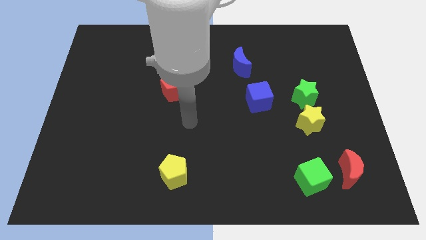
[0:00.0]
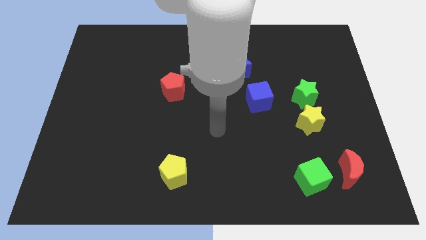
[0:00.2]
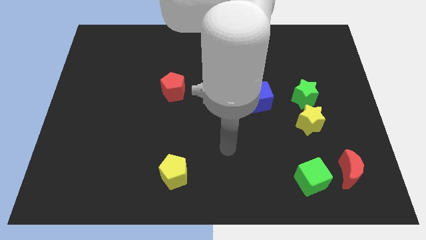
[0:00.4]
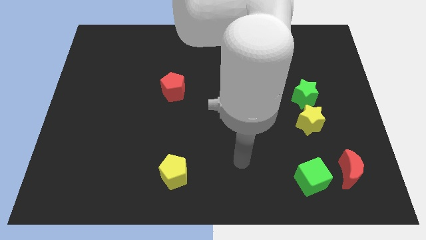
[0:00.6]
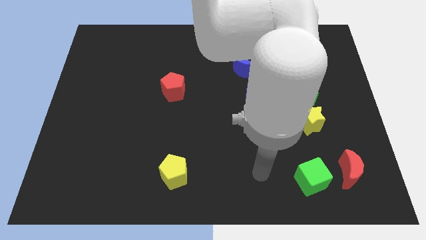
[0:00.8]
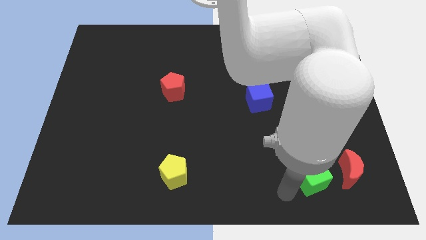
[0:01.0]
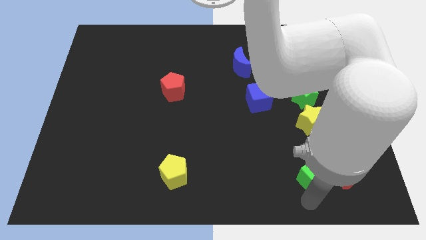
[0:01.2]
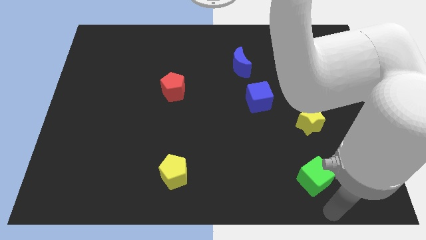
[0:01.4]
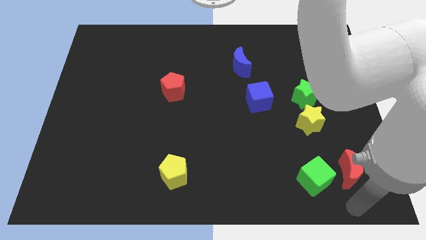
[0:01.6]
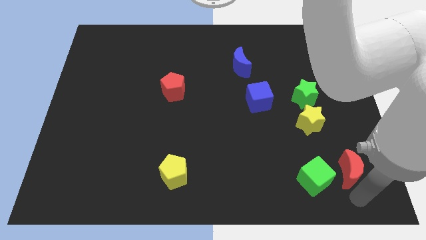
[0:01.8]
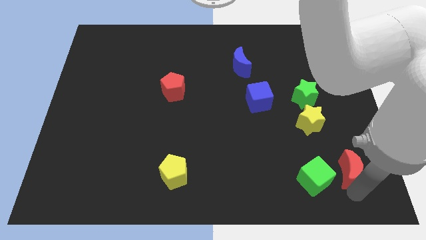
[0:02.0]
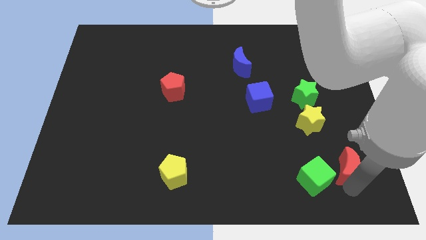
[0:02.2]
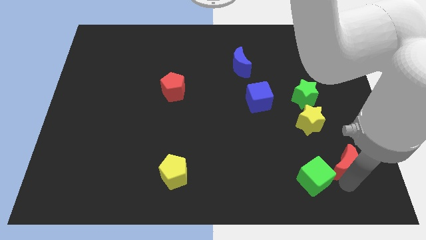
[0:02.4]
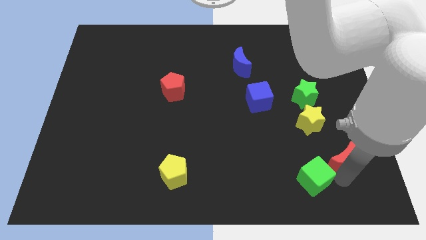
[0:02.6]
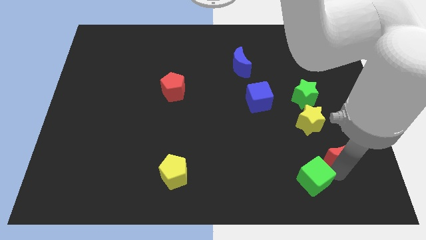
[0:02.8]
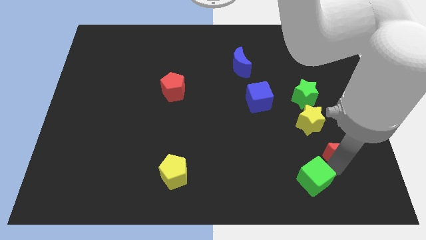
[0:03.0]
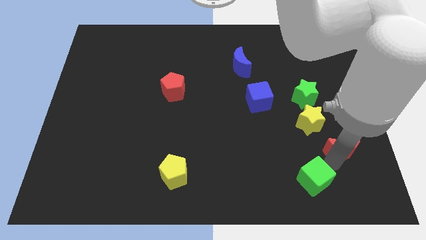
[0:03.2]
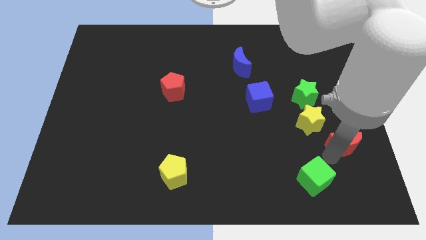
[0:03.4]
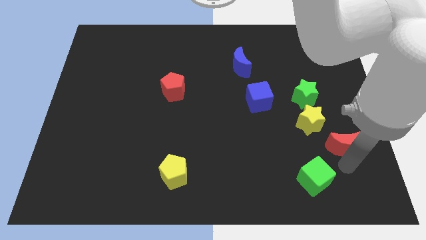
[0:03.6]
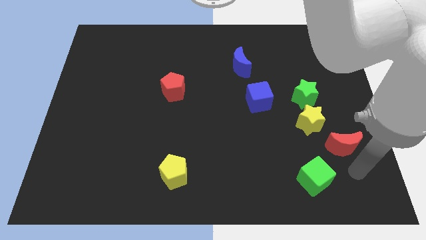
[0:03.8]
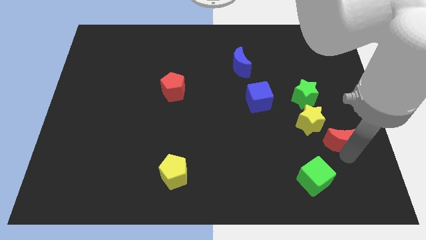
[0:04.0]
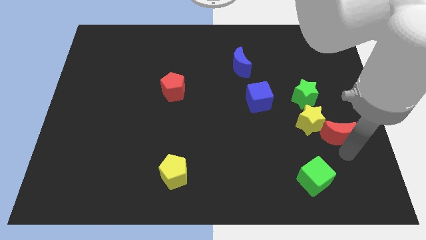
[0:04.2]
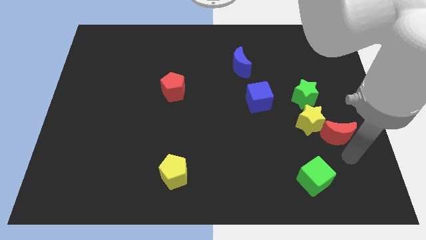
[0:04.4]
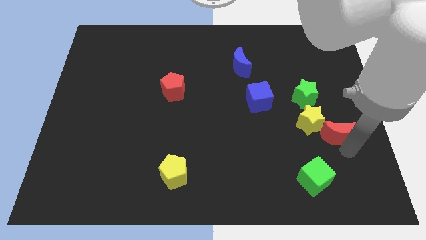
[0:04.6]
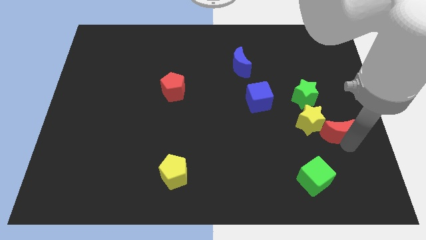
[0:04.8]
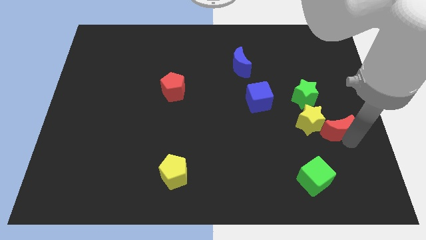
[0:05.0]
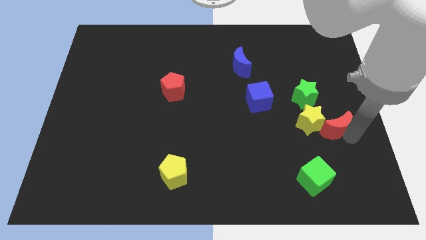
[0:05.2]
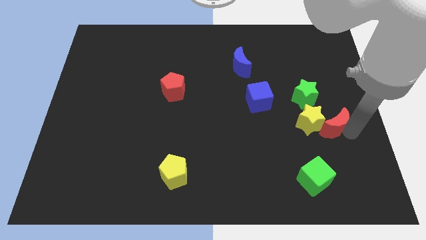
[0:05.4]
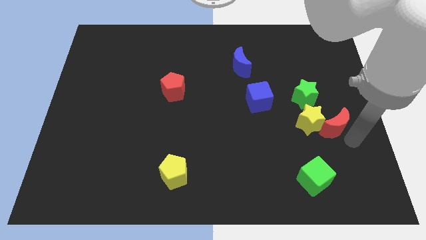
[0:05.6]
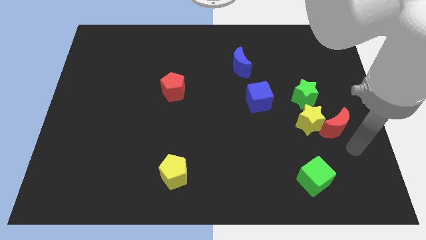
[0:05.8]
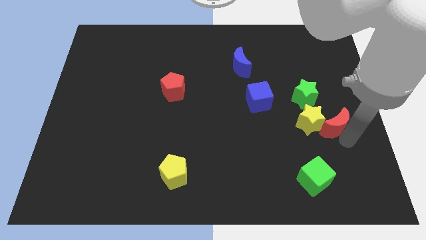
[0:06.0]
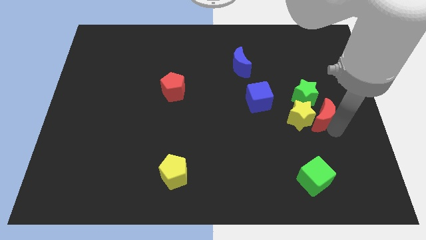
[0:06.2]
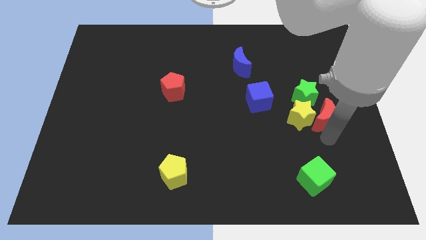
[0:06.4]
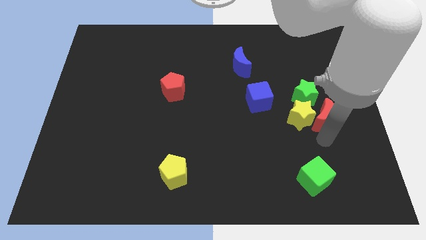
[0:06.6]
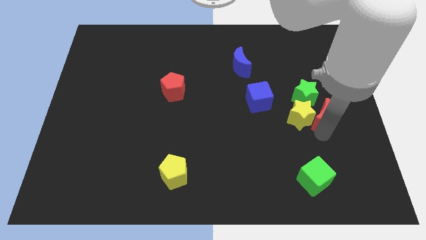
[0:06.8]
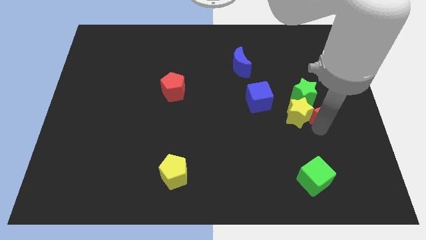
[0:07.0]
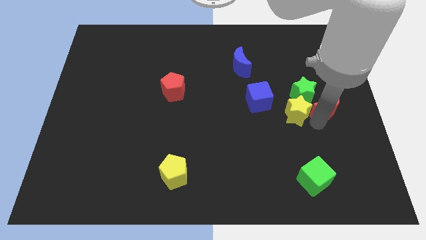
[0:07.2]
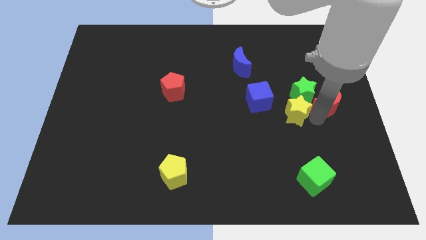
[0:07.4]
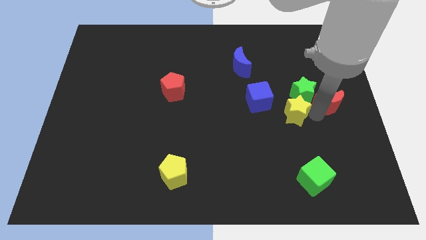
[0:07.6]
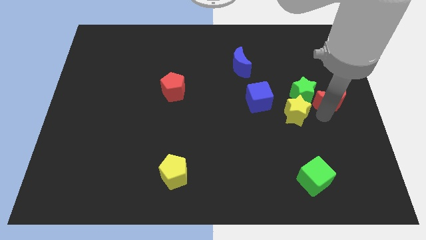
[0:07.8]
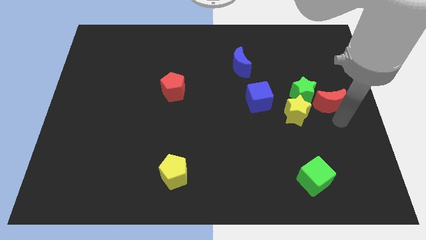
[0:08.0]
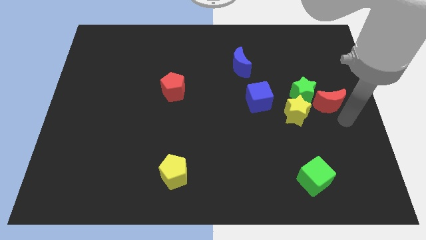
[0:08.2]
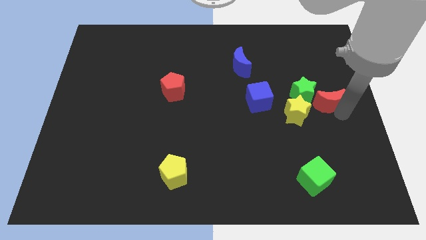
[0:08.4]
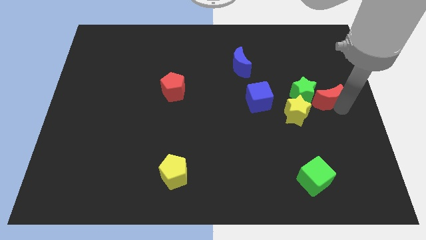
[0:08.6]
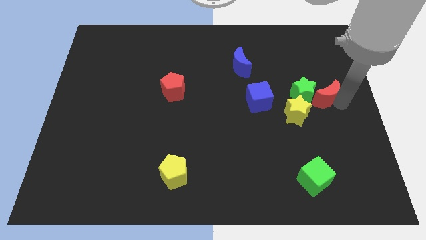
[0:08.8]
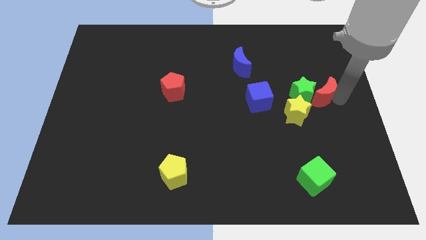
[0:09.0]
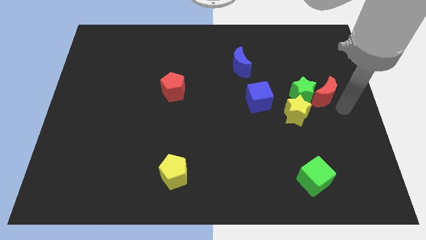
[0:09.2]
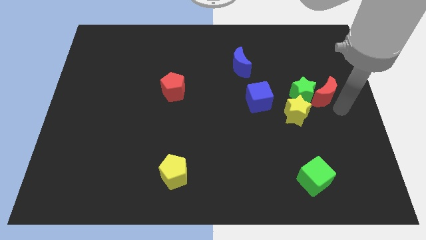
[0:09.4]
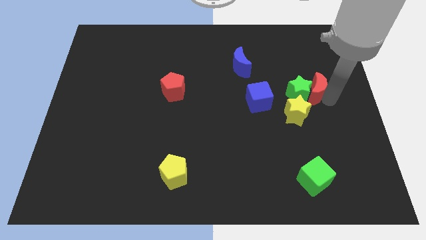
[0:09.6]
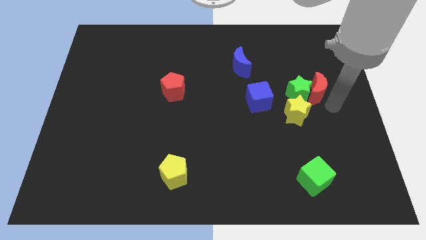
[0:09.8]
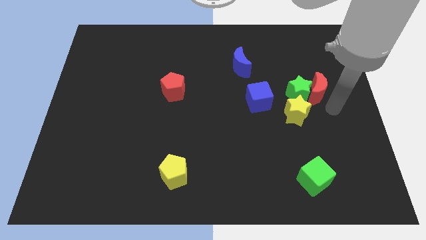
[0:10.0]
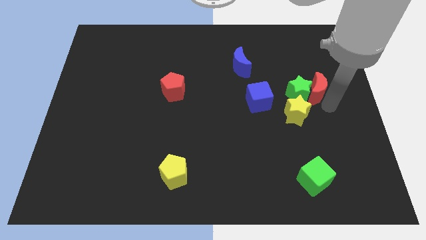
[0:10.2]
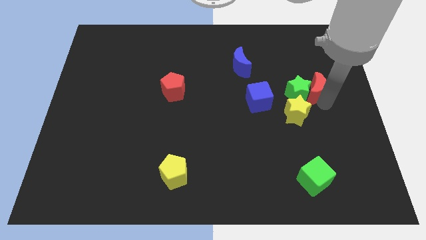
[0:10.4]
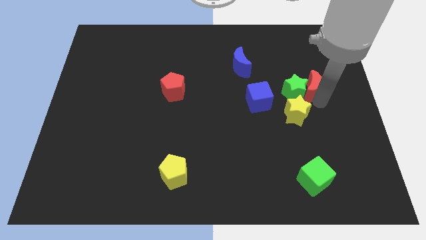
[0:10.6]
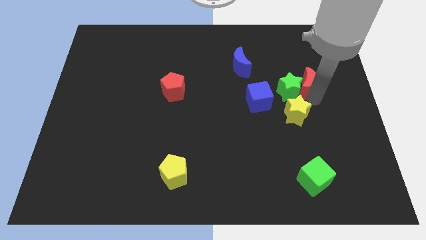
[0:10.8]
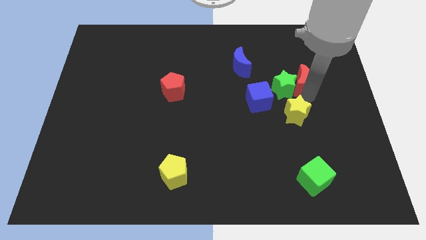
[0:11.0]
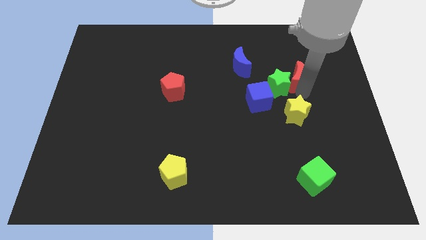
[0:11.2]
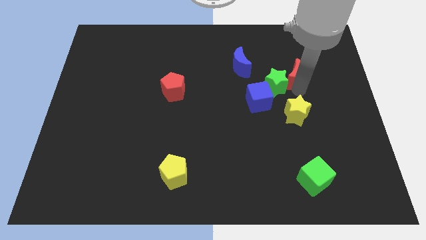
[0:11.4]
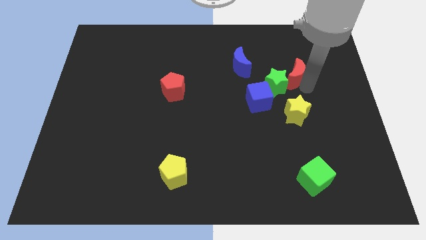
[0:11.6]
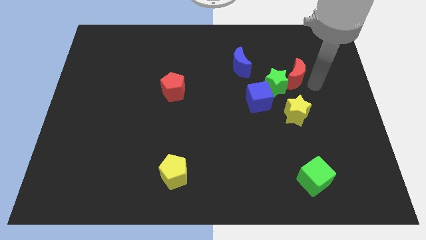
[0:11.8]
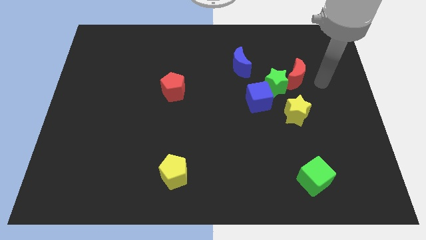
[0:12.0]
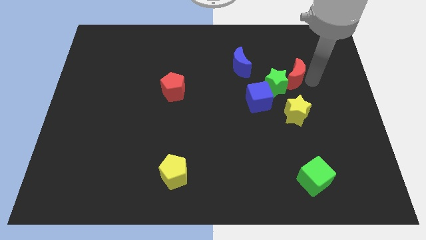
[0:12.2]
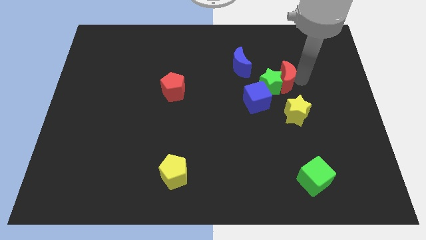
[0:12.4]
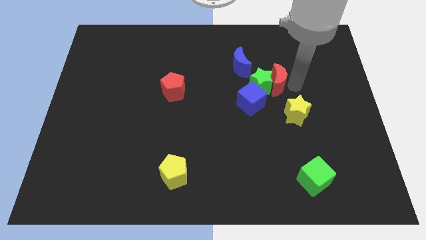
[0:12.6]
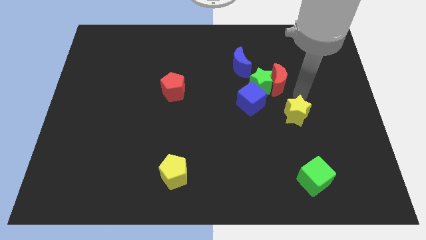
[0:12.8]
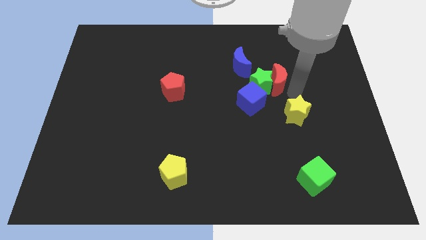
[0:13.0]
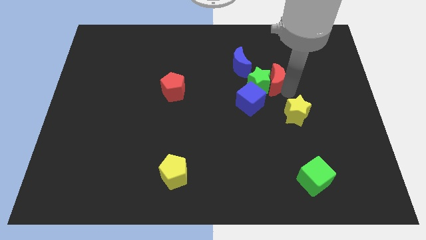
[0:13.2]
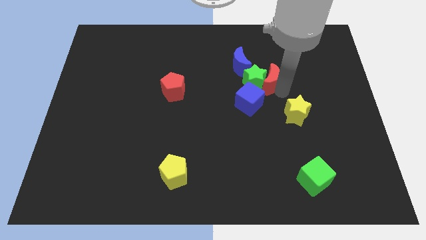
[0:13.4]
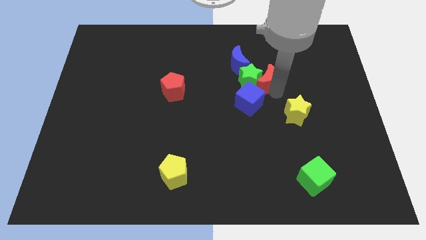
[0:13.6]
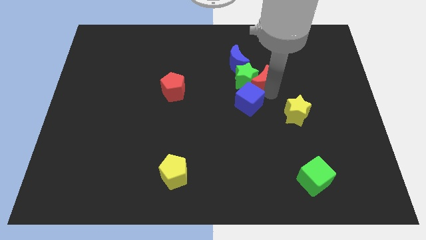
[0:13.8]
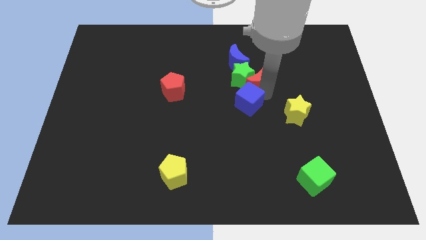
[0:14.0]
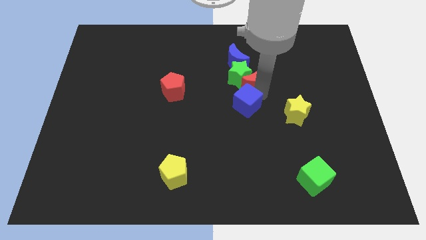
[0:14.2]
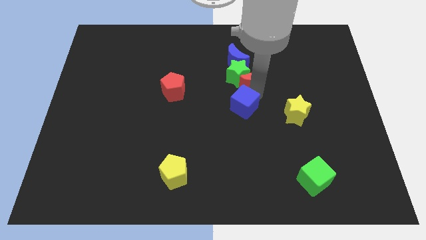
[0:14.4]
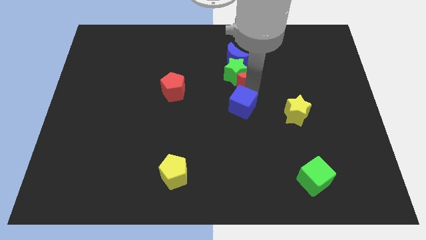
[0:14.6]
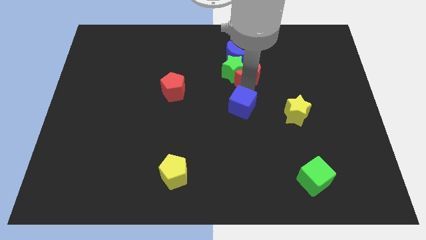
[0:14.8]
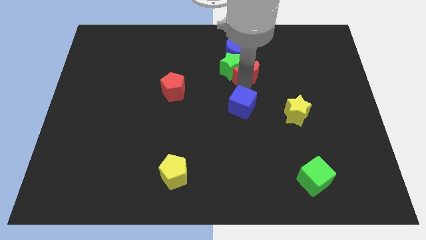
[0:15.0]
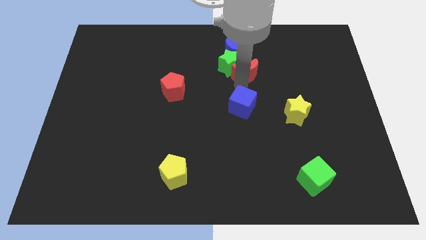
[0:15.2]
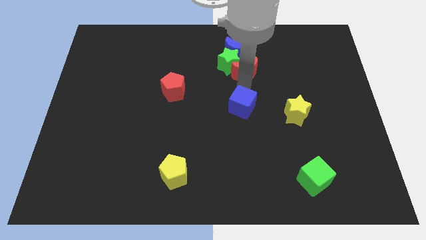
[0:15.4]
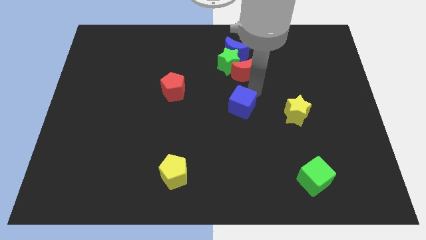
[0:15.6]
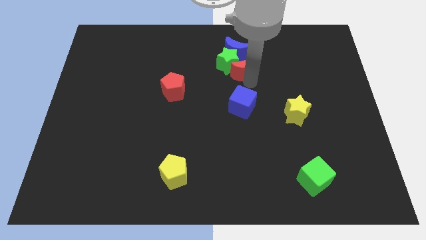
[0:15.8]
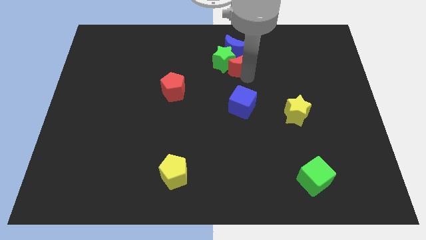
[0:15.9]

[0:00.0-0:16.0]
move the red moon to the blue moon
